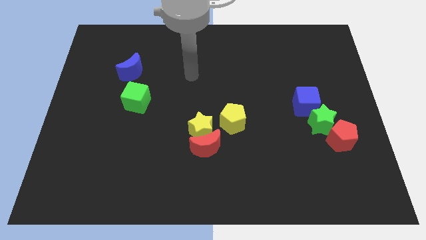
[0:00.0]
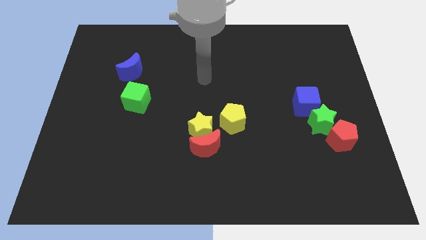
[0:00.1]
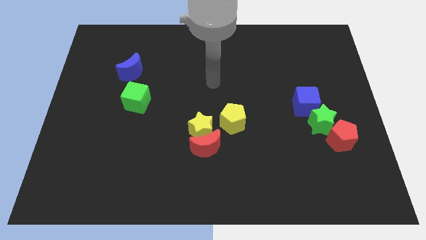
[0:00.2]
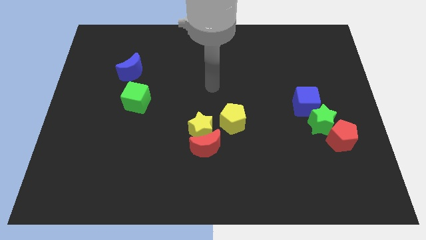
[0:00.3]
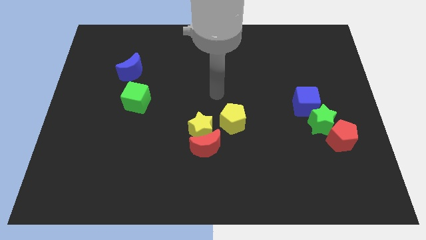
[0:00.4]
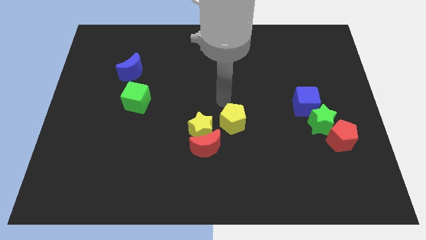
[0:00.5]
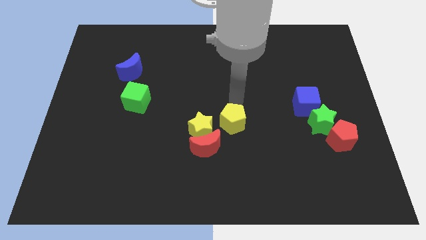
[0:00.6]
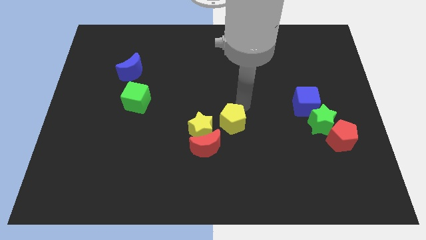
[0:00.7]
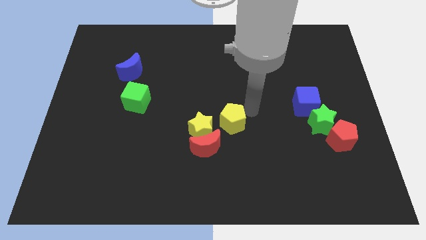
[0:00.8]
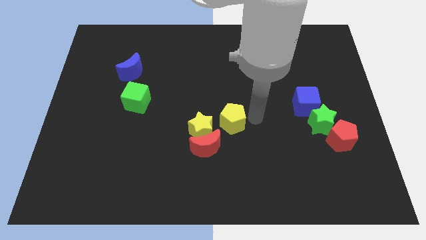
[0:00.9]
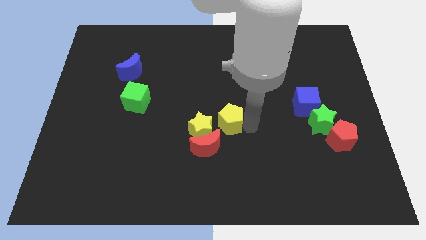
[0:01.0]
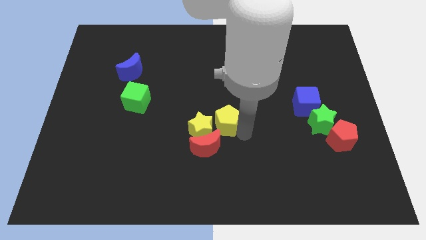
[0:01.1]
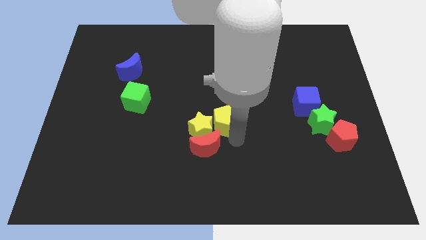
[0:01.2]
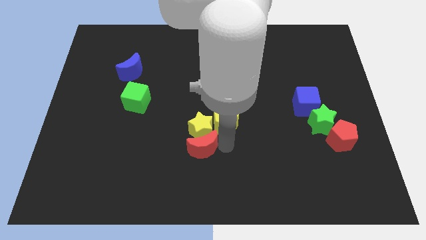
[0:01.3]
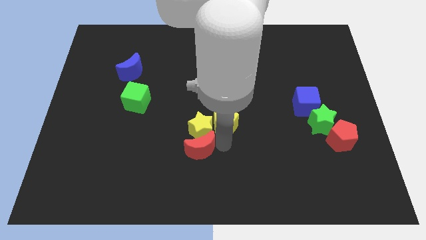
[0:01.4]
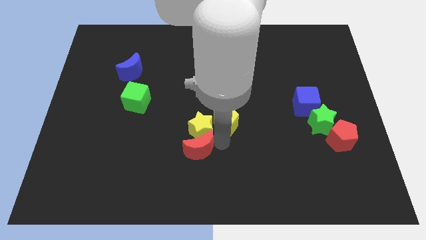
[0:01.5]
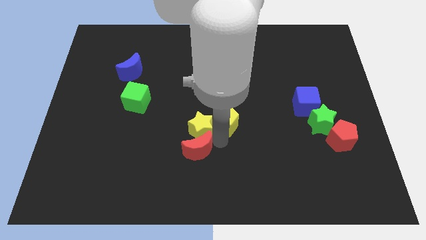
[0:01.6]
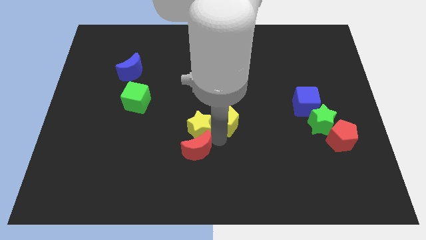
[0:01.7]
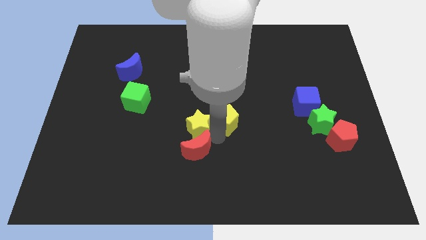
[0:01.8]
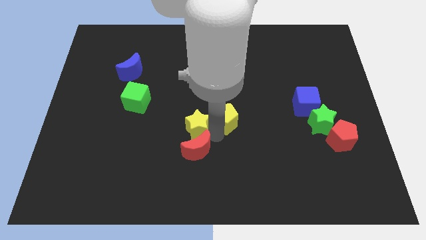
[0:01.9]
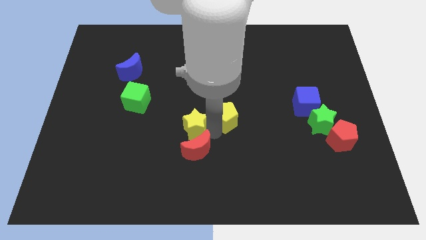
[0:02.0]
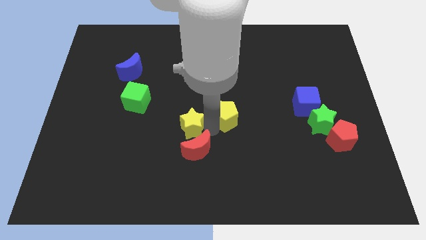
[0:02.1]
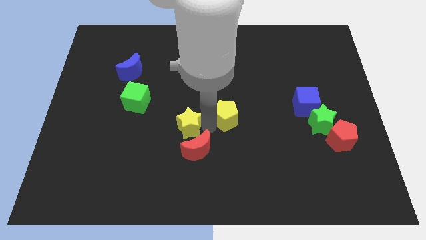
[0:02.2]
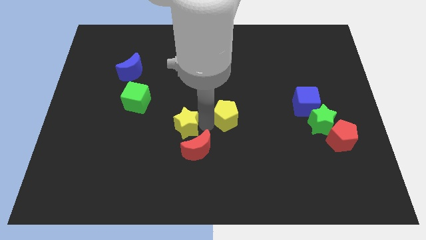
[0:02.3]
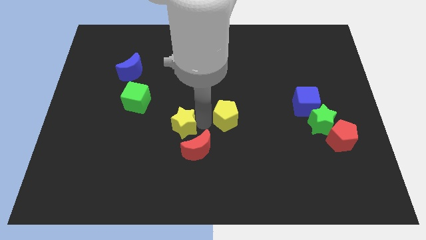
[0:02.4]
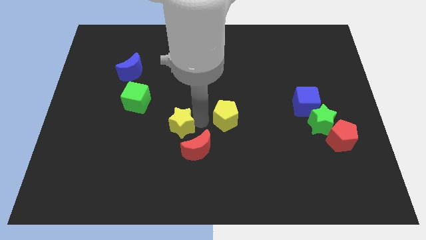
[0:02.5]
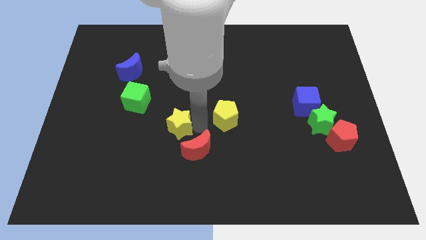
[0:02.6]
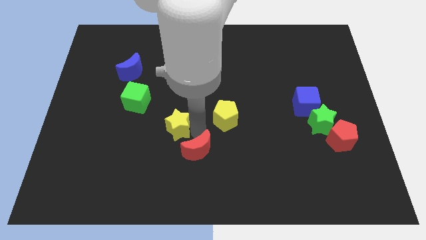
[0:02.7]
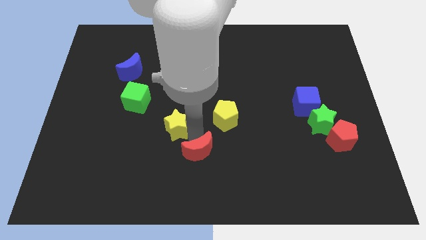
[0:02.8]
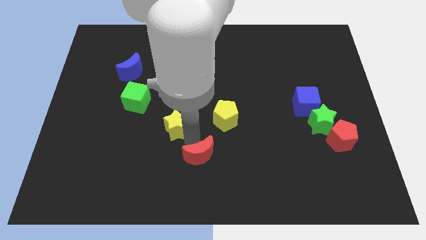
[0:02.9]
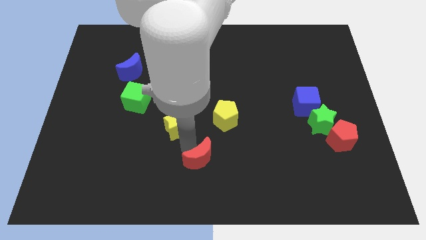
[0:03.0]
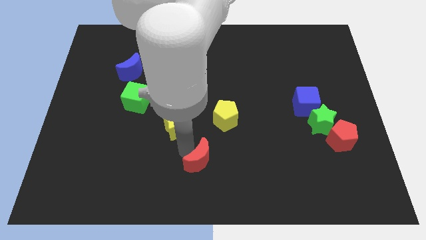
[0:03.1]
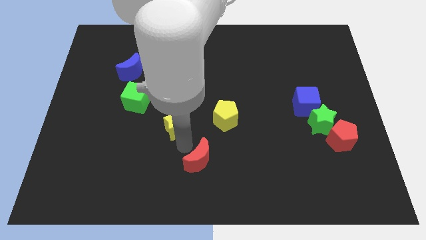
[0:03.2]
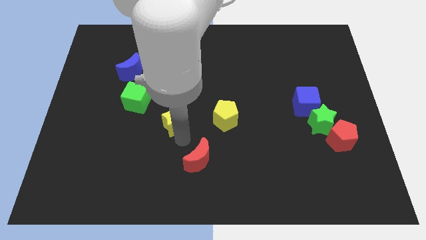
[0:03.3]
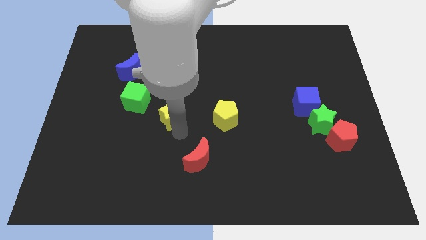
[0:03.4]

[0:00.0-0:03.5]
move the yellow star a bit upwards and then left

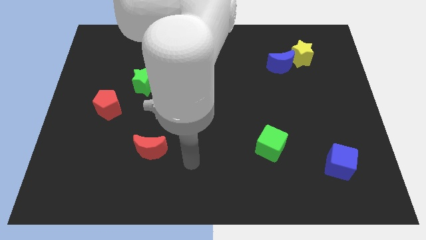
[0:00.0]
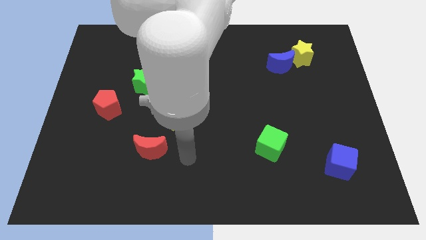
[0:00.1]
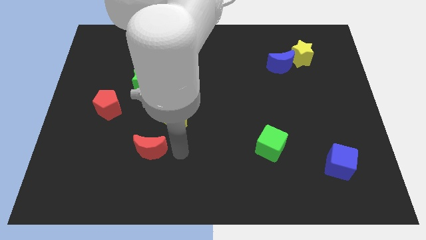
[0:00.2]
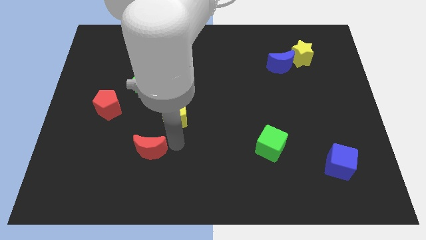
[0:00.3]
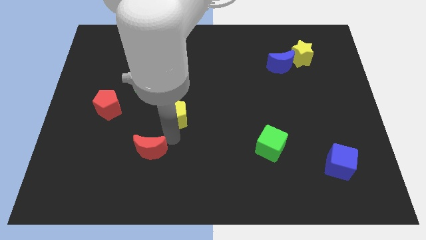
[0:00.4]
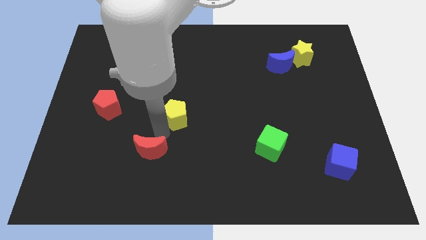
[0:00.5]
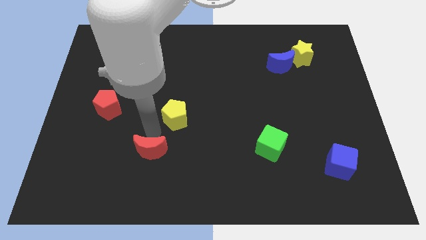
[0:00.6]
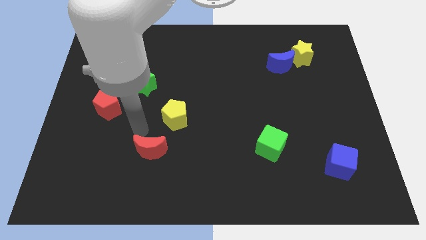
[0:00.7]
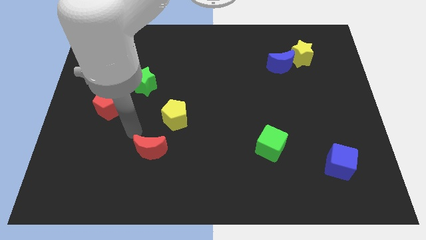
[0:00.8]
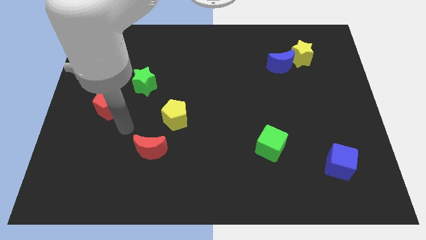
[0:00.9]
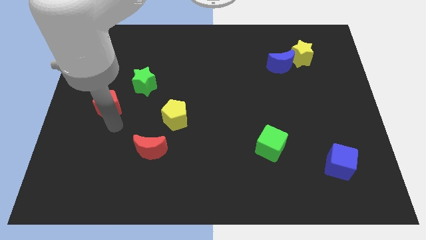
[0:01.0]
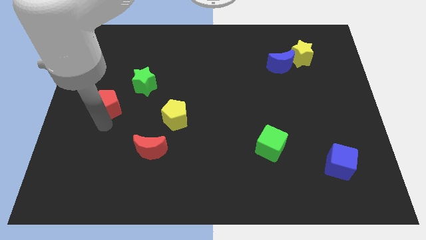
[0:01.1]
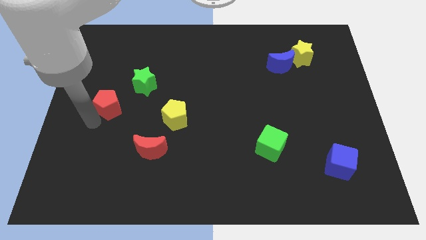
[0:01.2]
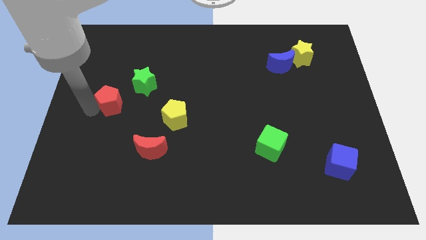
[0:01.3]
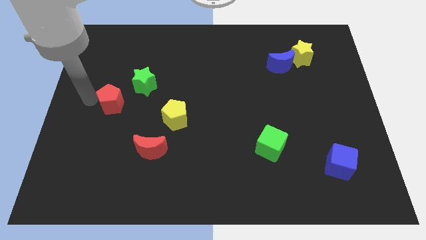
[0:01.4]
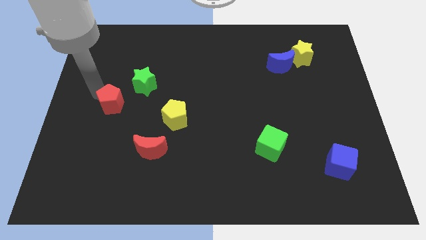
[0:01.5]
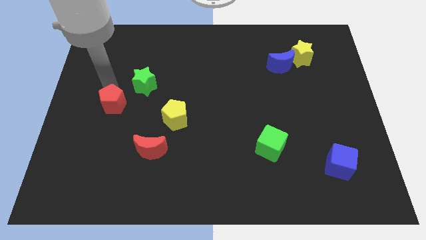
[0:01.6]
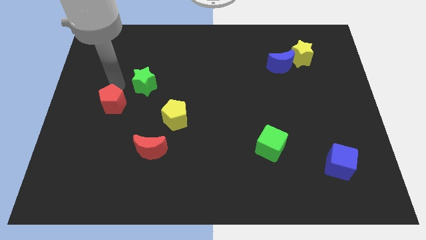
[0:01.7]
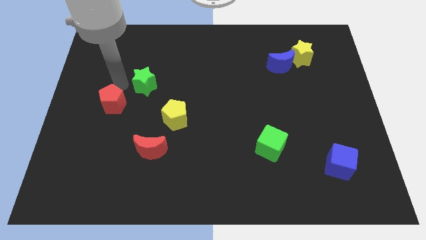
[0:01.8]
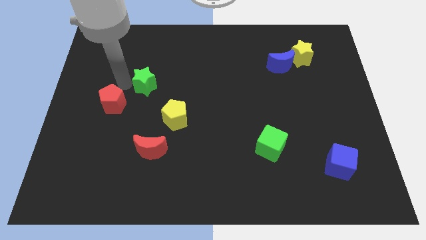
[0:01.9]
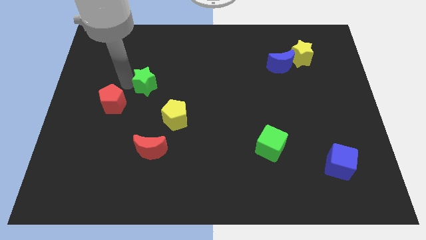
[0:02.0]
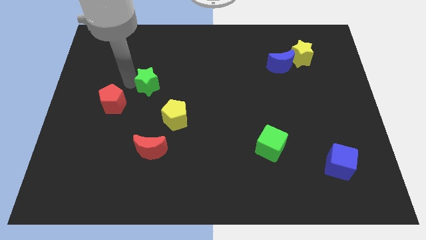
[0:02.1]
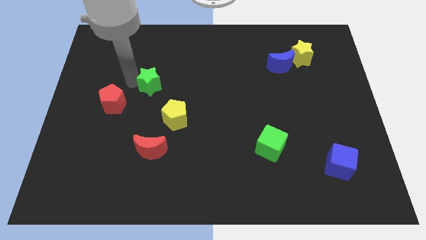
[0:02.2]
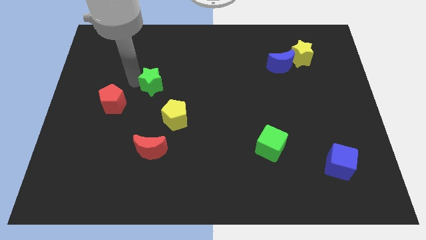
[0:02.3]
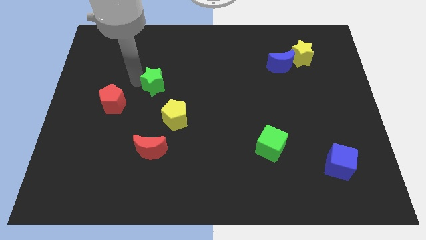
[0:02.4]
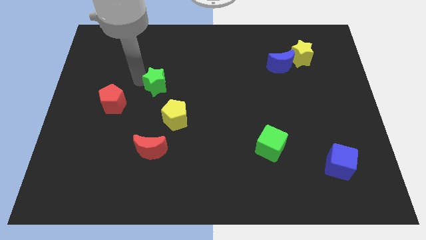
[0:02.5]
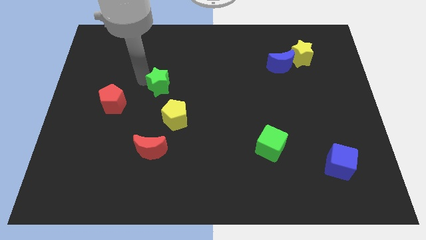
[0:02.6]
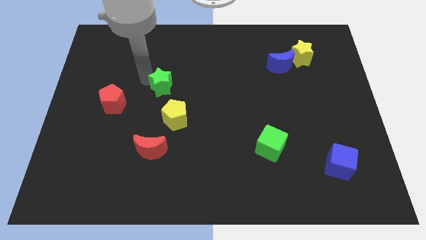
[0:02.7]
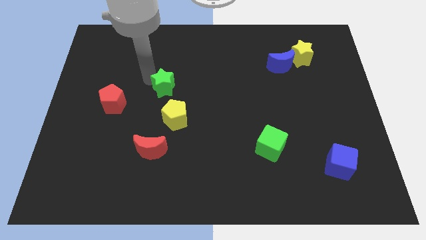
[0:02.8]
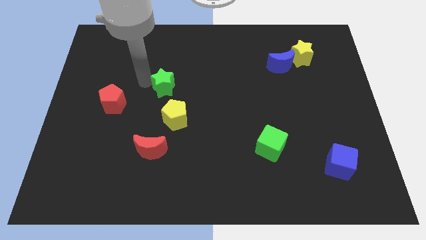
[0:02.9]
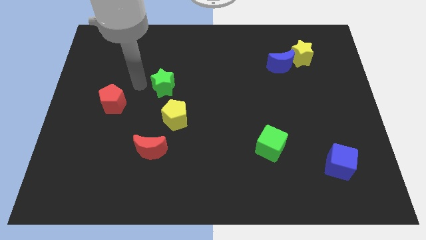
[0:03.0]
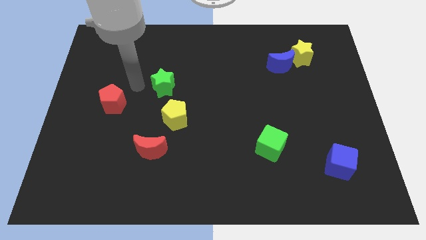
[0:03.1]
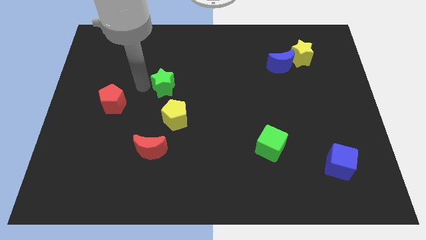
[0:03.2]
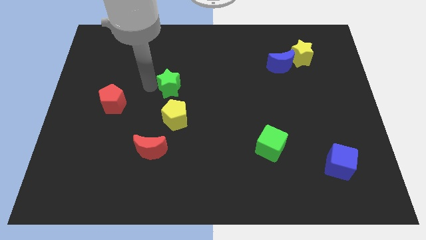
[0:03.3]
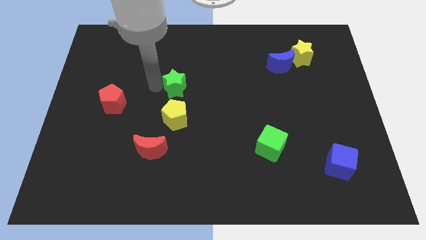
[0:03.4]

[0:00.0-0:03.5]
slightly push the green star right

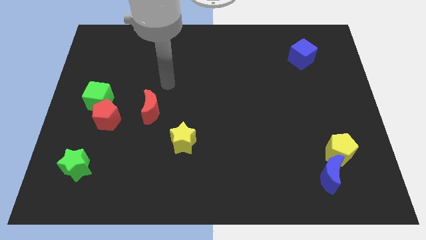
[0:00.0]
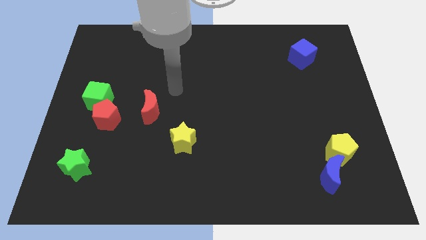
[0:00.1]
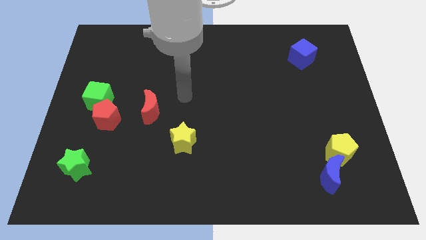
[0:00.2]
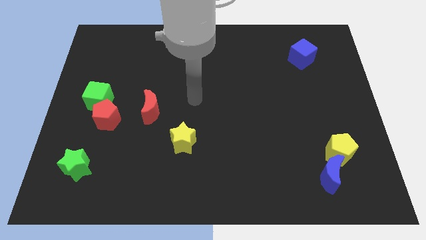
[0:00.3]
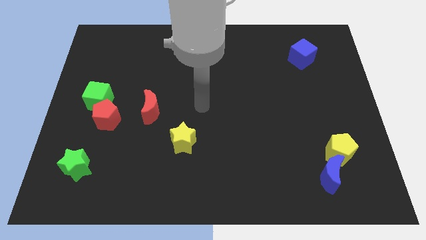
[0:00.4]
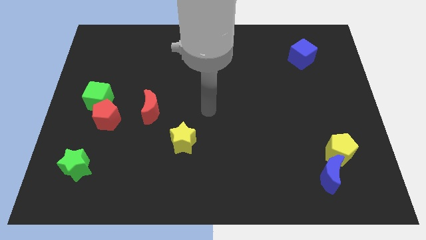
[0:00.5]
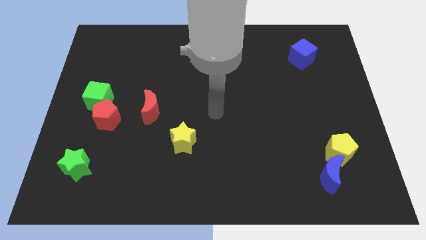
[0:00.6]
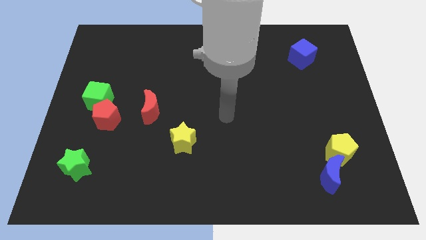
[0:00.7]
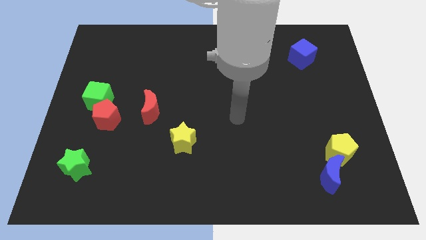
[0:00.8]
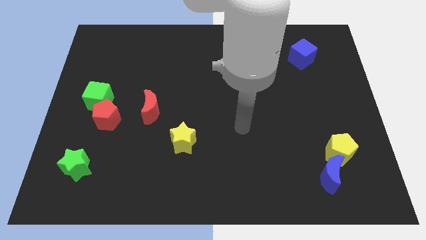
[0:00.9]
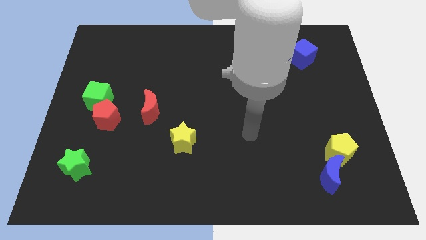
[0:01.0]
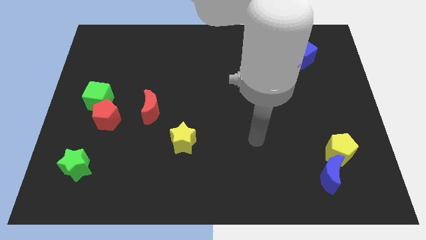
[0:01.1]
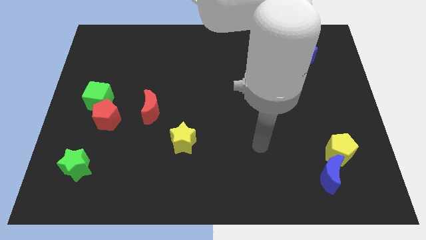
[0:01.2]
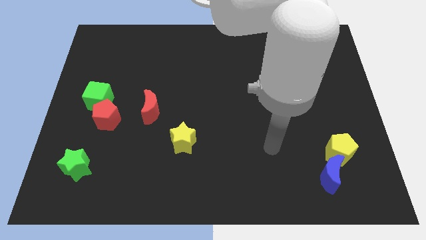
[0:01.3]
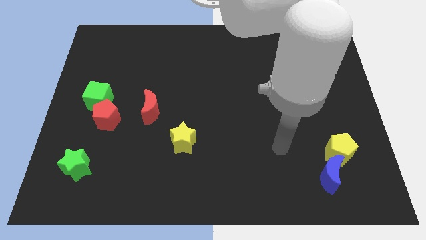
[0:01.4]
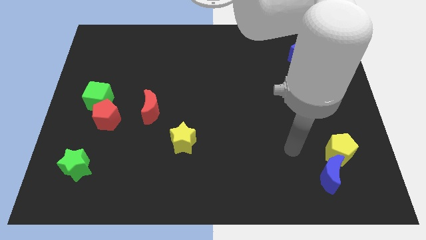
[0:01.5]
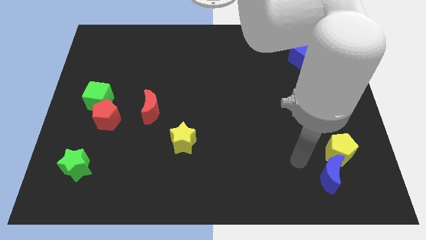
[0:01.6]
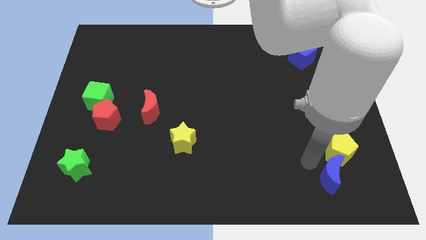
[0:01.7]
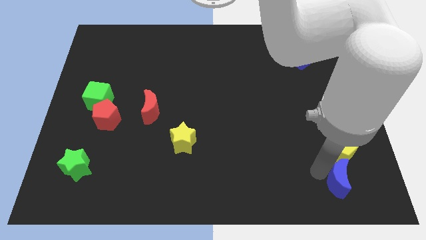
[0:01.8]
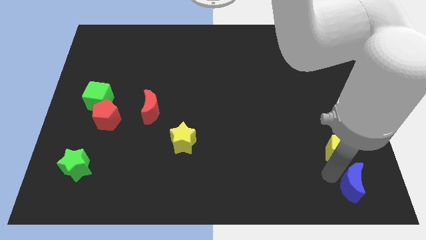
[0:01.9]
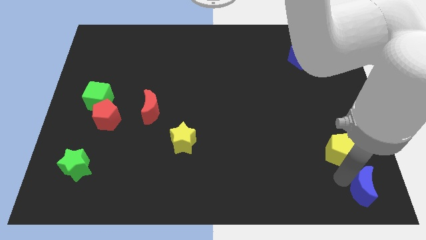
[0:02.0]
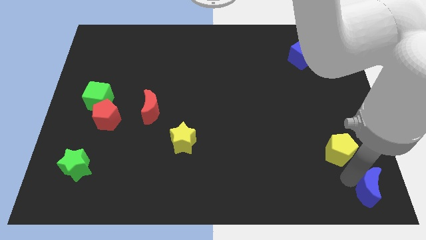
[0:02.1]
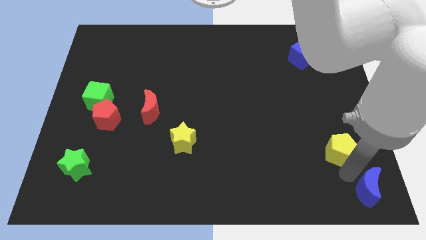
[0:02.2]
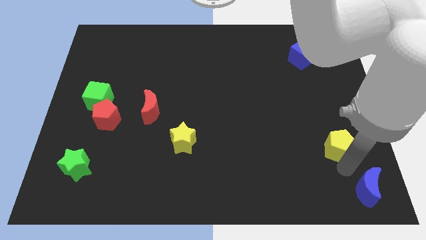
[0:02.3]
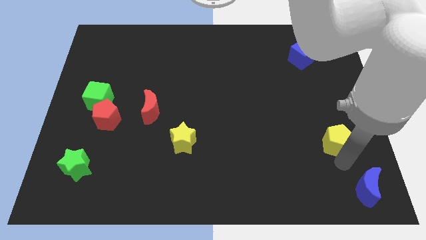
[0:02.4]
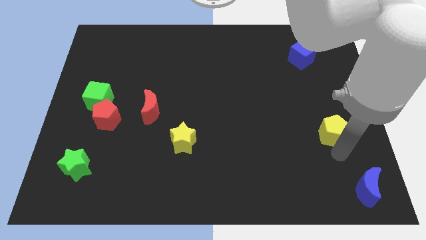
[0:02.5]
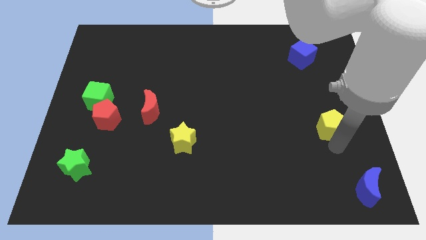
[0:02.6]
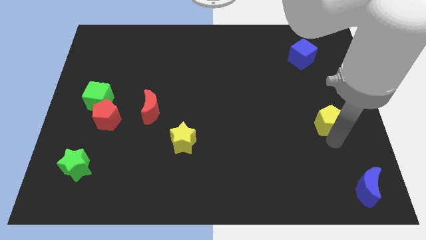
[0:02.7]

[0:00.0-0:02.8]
slightly slide the yellow pentagon upwards
